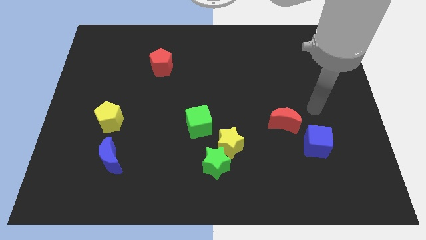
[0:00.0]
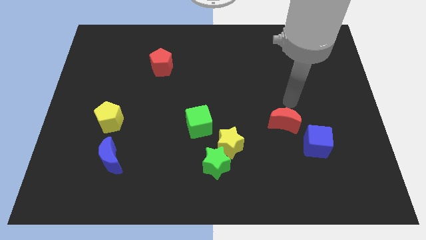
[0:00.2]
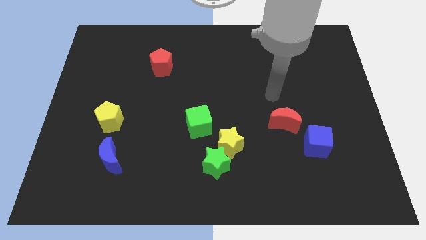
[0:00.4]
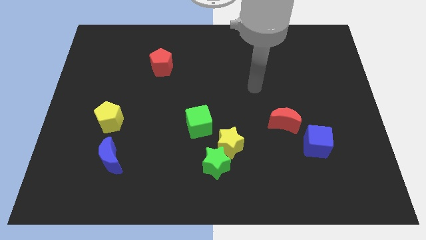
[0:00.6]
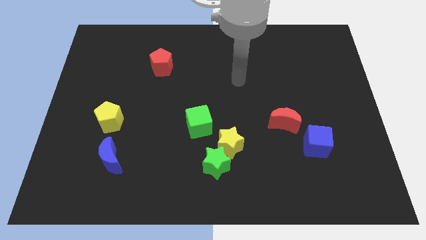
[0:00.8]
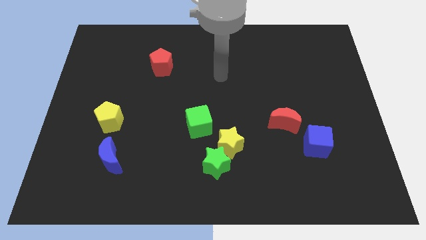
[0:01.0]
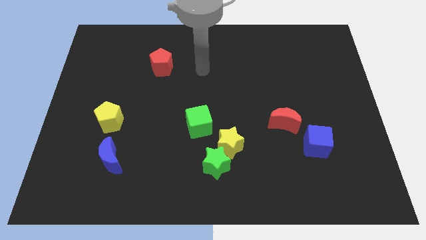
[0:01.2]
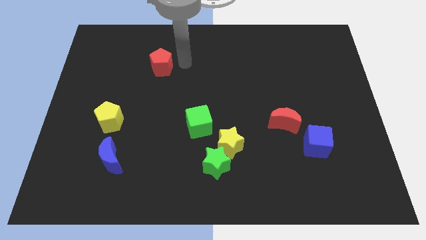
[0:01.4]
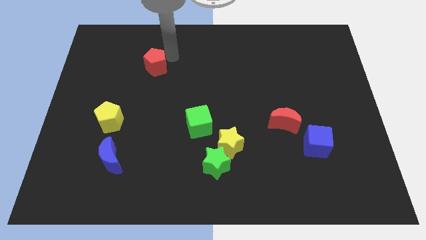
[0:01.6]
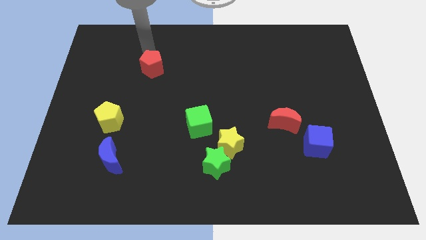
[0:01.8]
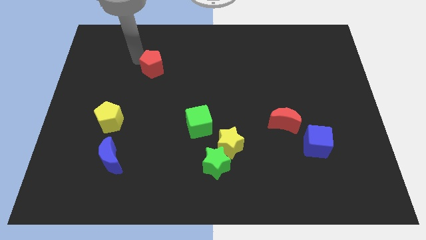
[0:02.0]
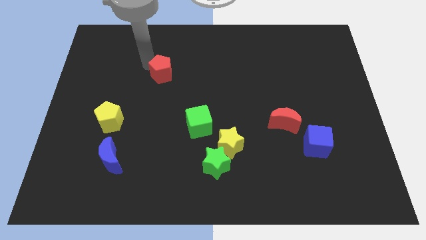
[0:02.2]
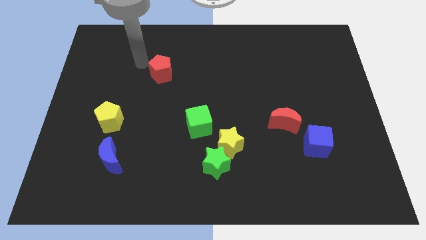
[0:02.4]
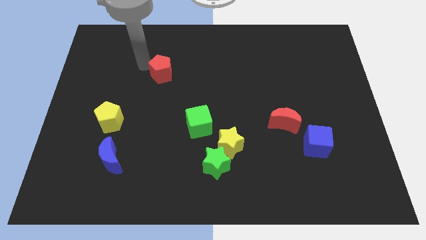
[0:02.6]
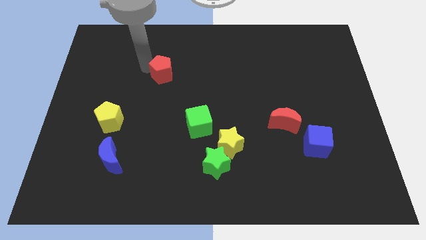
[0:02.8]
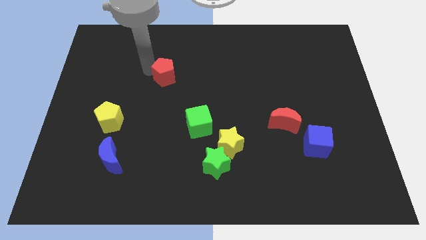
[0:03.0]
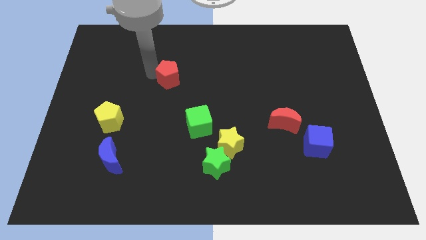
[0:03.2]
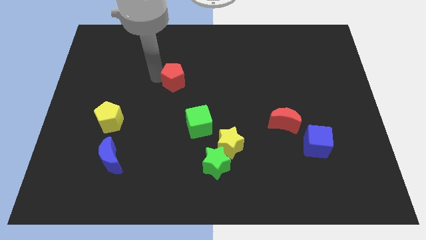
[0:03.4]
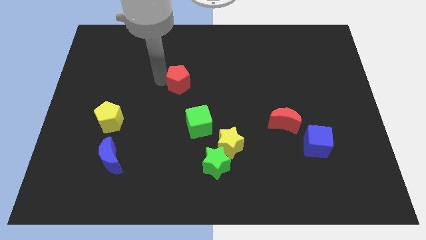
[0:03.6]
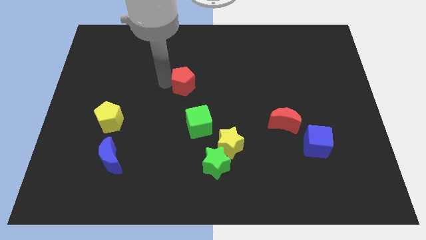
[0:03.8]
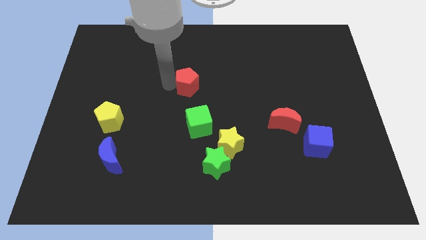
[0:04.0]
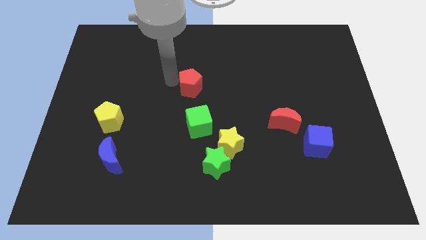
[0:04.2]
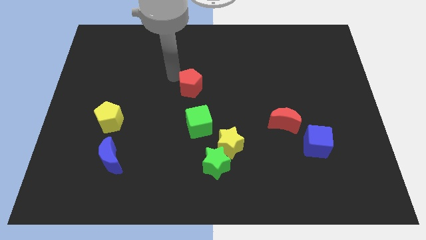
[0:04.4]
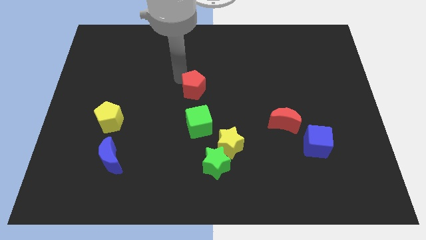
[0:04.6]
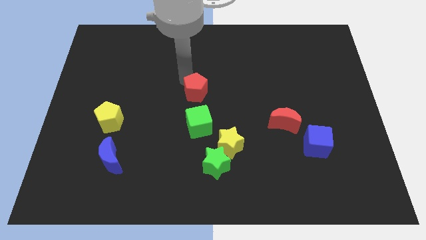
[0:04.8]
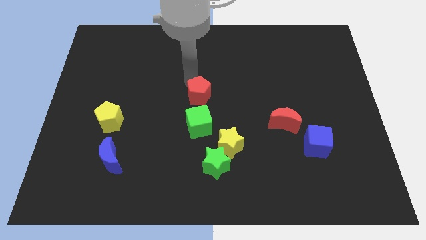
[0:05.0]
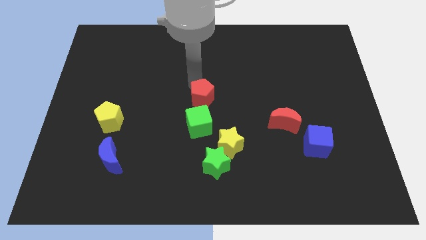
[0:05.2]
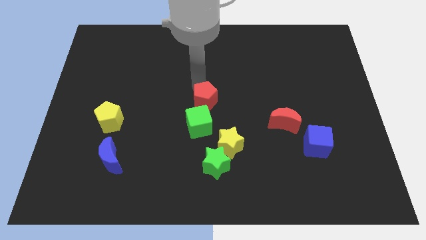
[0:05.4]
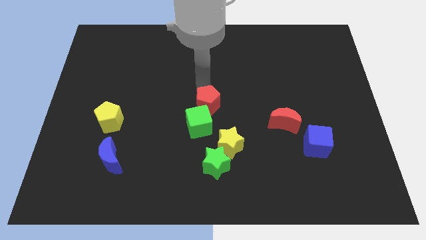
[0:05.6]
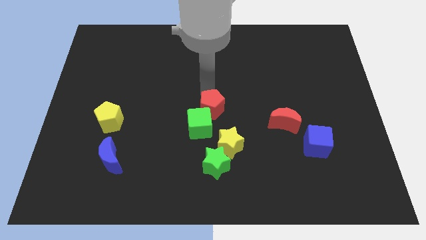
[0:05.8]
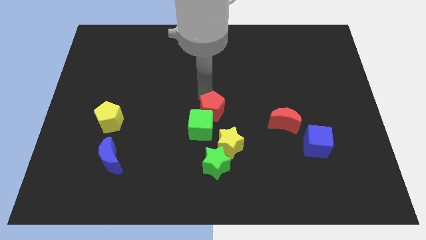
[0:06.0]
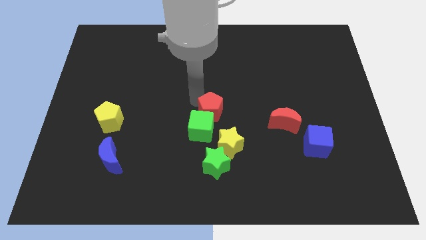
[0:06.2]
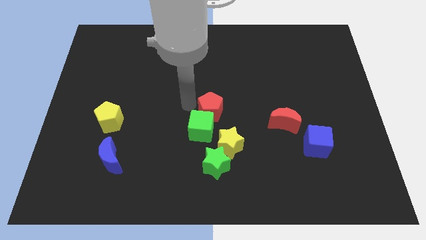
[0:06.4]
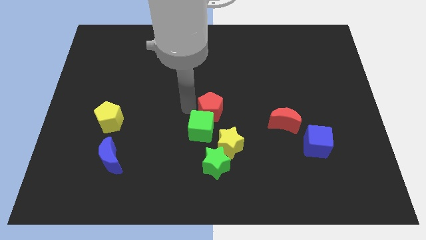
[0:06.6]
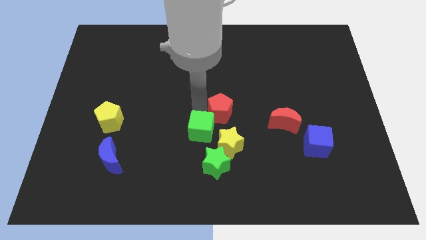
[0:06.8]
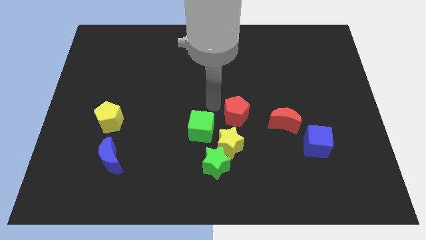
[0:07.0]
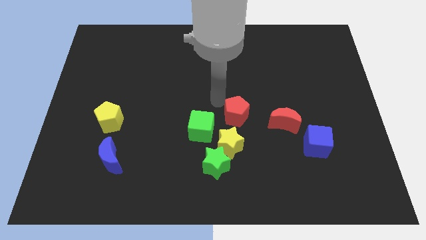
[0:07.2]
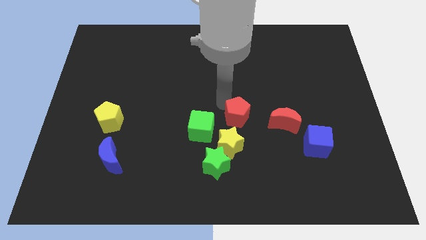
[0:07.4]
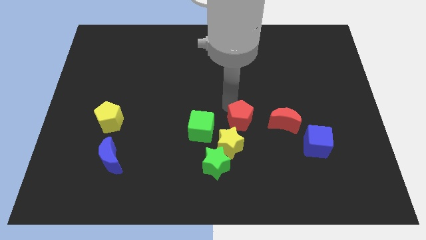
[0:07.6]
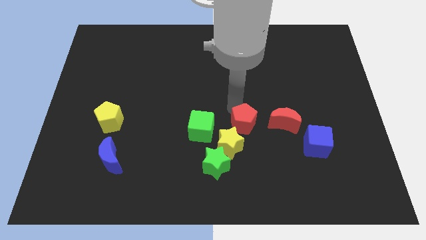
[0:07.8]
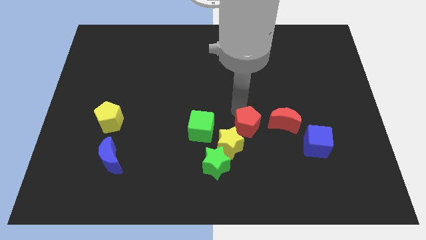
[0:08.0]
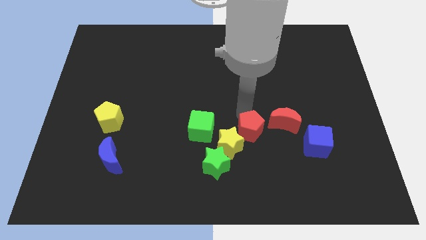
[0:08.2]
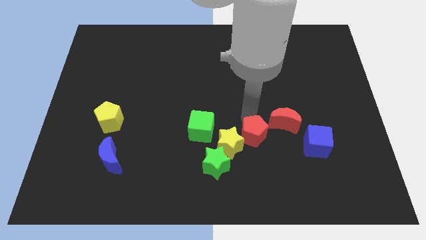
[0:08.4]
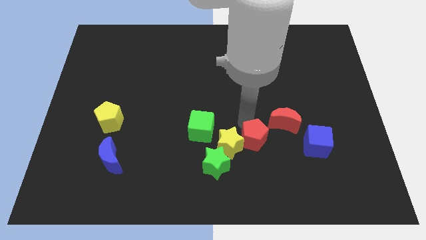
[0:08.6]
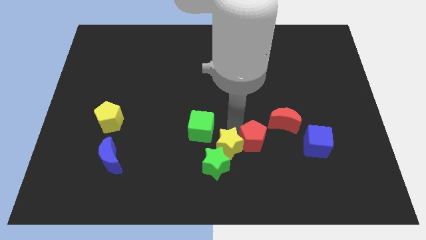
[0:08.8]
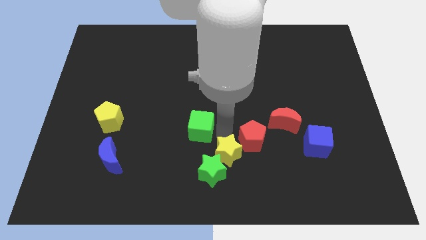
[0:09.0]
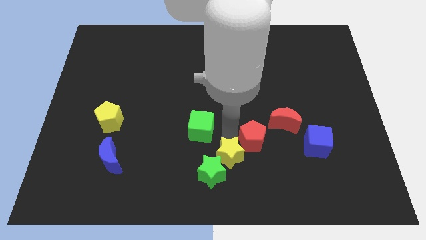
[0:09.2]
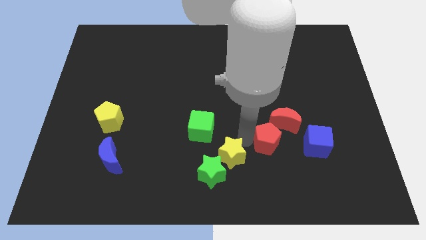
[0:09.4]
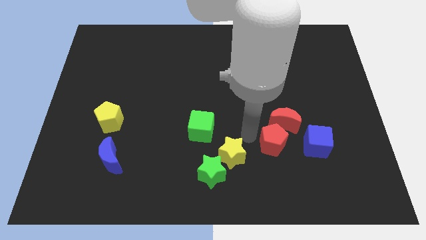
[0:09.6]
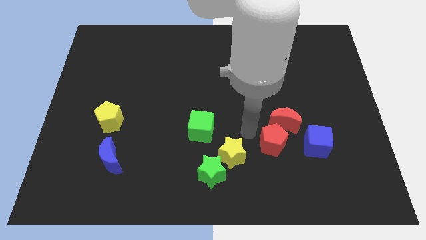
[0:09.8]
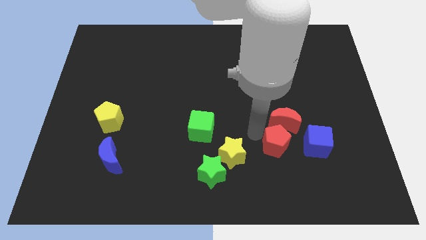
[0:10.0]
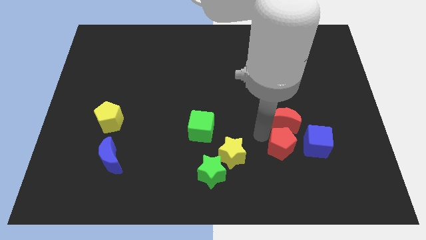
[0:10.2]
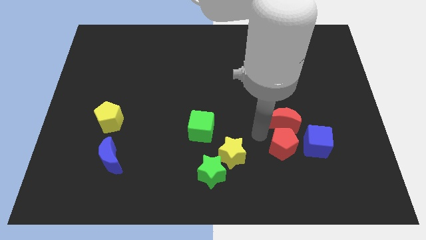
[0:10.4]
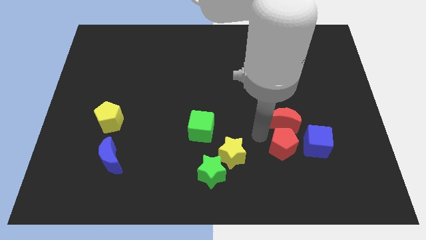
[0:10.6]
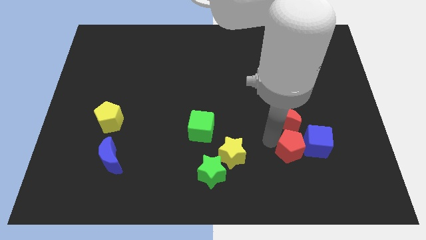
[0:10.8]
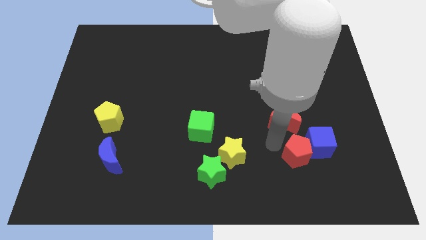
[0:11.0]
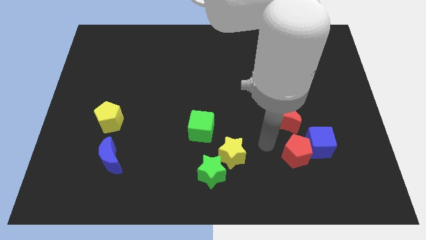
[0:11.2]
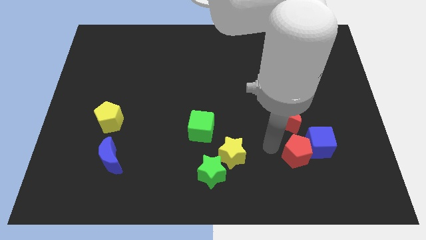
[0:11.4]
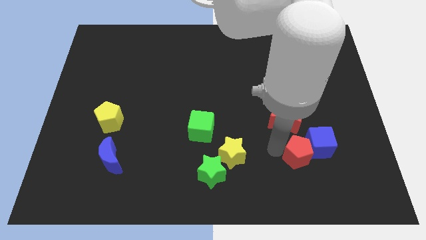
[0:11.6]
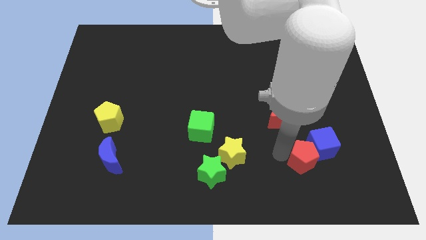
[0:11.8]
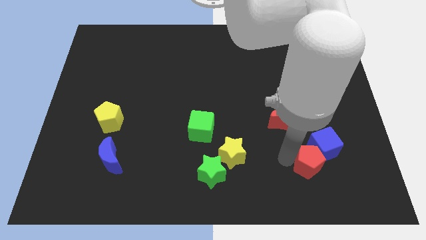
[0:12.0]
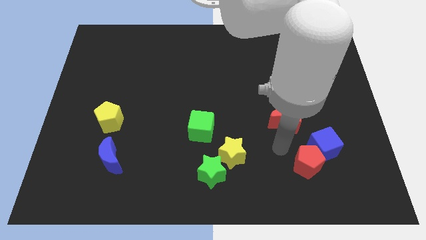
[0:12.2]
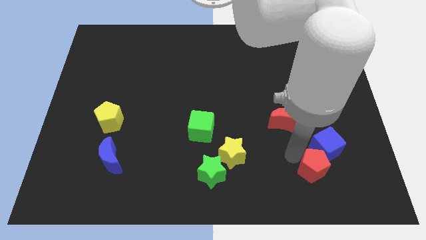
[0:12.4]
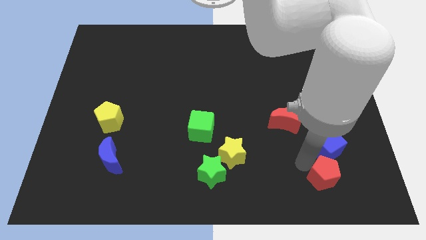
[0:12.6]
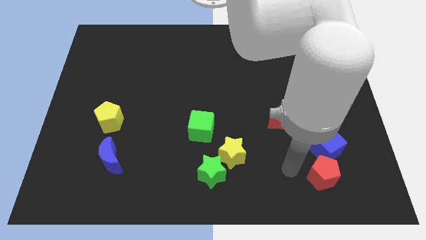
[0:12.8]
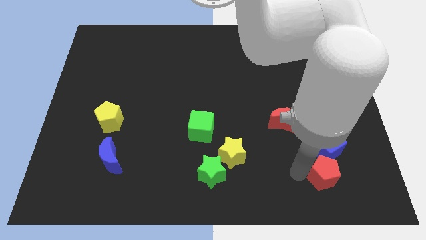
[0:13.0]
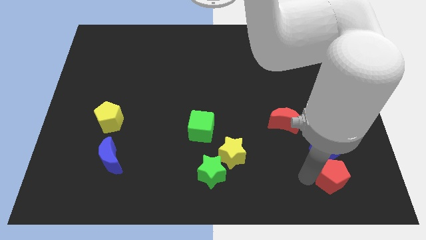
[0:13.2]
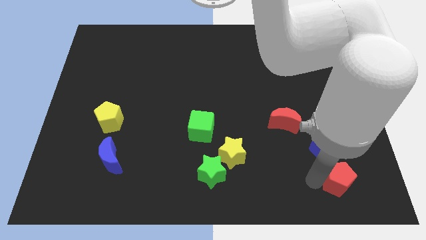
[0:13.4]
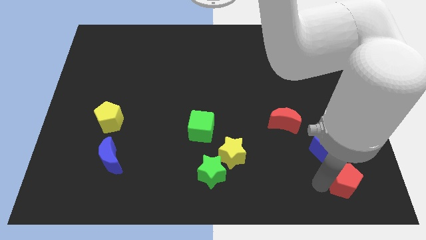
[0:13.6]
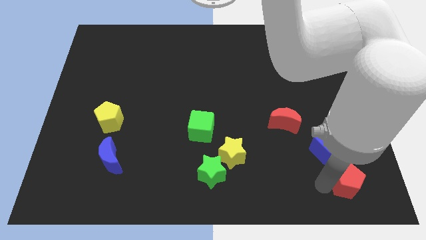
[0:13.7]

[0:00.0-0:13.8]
move the red pentagon to the bottom right corner

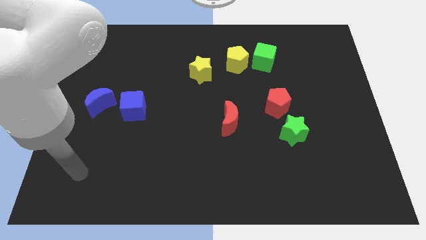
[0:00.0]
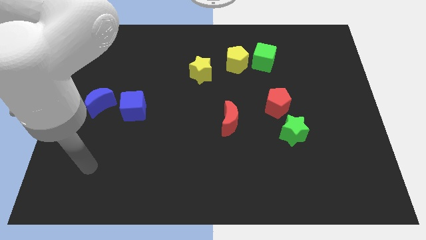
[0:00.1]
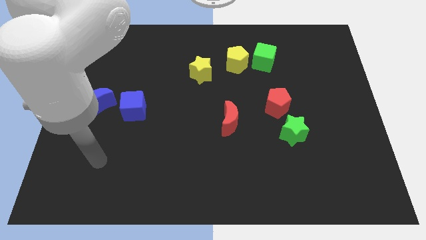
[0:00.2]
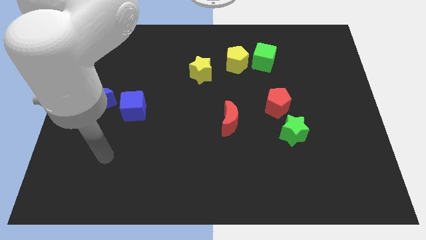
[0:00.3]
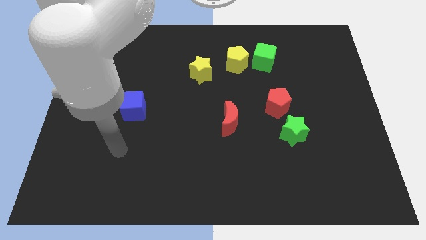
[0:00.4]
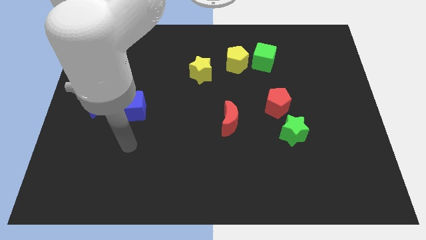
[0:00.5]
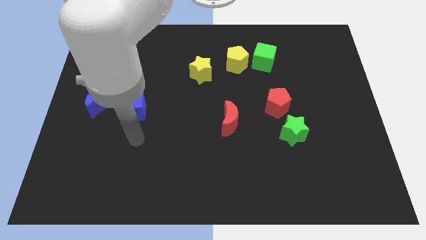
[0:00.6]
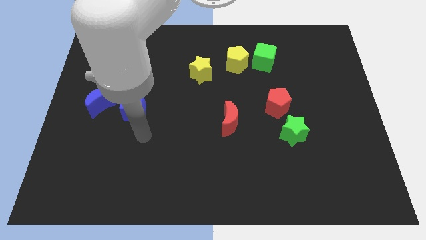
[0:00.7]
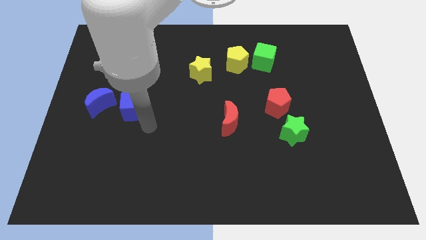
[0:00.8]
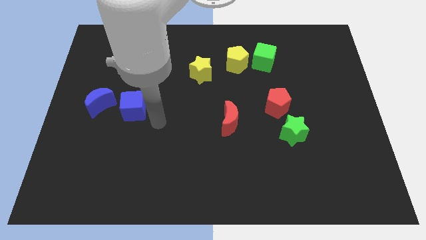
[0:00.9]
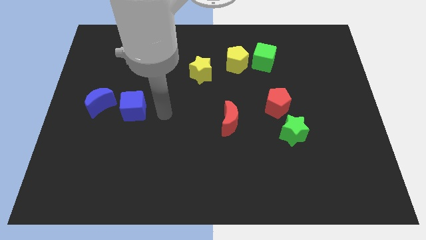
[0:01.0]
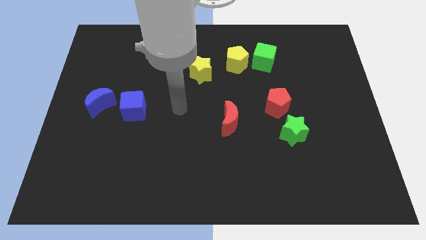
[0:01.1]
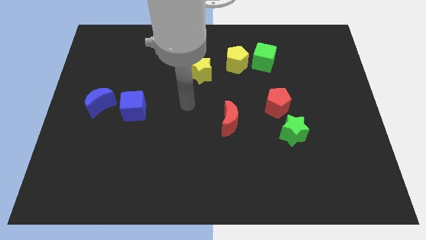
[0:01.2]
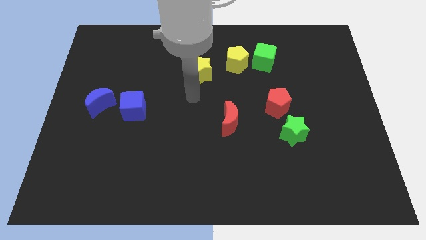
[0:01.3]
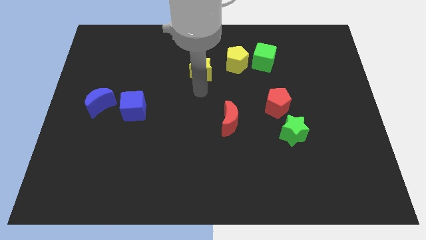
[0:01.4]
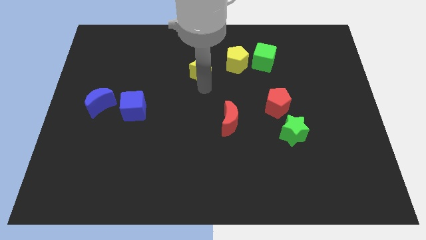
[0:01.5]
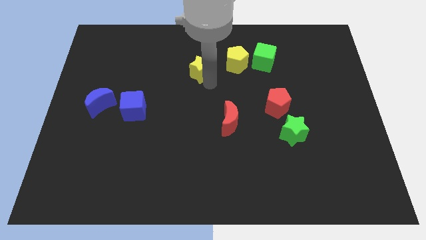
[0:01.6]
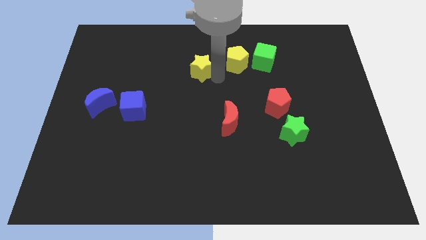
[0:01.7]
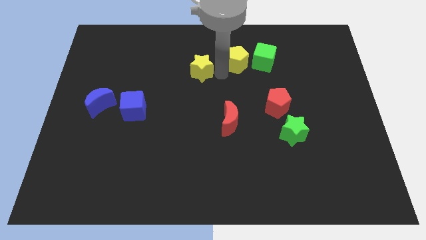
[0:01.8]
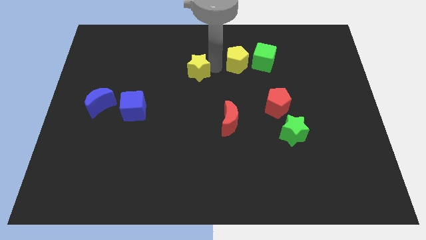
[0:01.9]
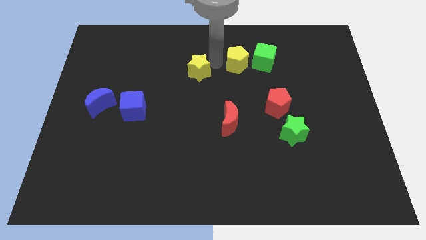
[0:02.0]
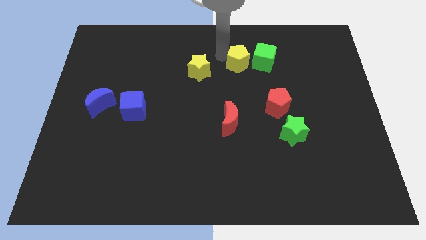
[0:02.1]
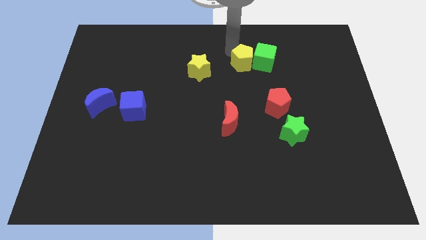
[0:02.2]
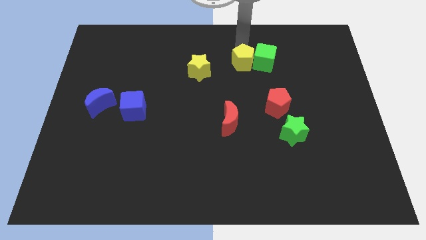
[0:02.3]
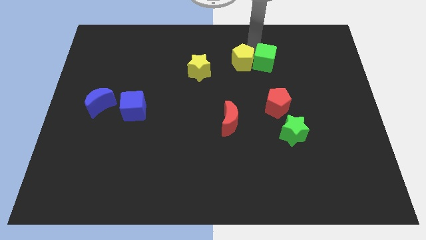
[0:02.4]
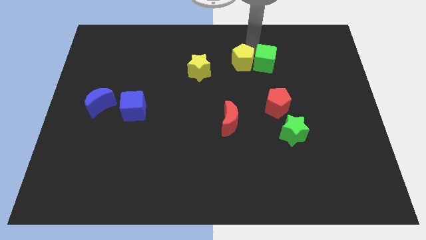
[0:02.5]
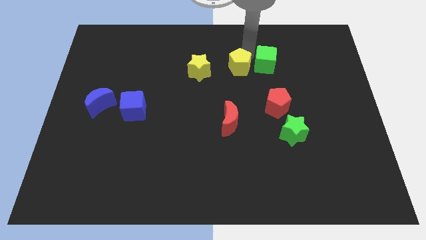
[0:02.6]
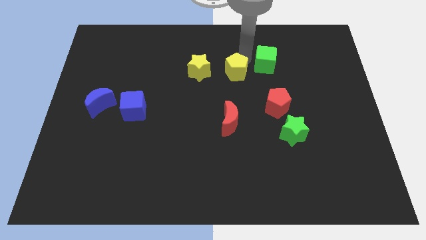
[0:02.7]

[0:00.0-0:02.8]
slide the yellow pentagon to the middle
